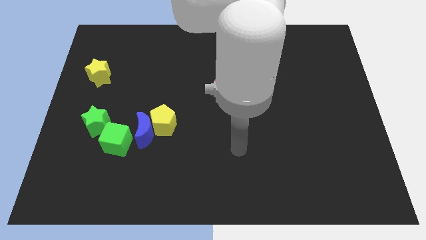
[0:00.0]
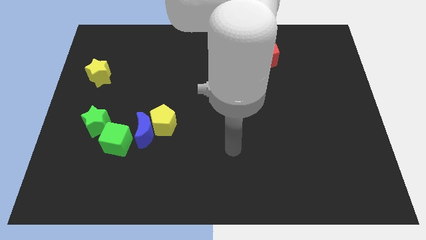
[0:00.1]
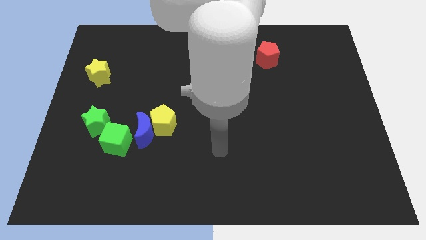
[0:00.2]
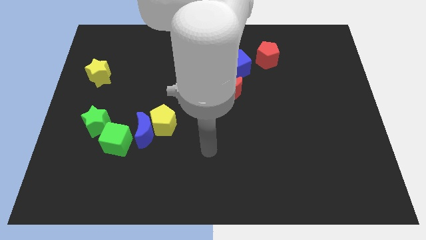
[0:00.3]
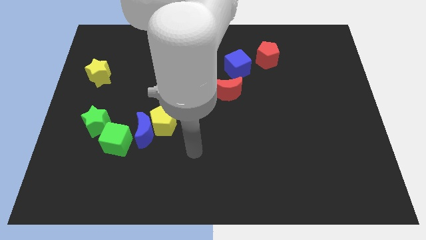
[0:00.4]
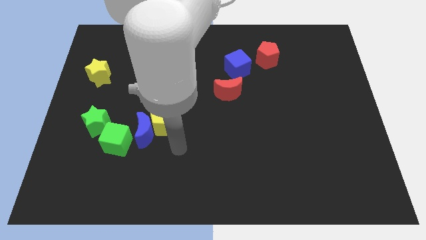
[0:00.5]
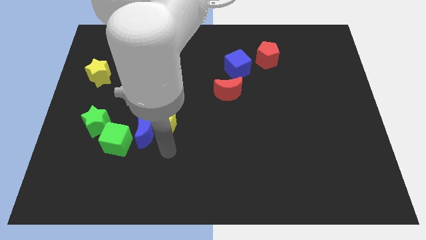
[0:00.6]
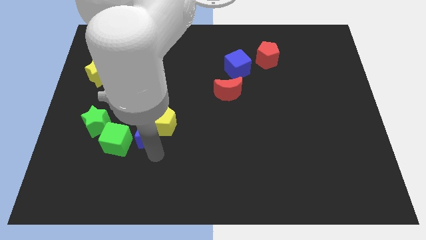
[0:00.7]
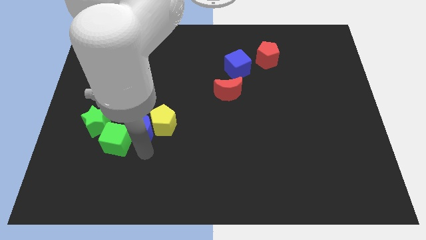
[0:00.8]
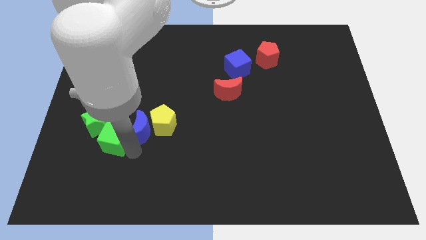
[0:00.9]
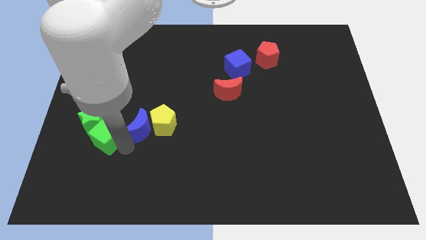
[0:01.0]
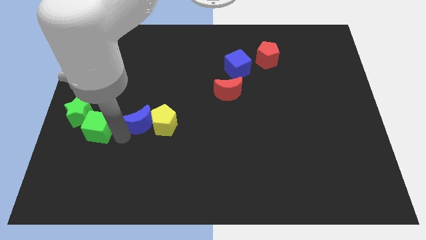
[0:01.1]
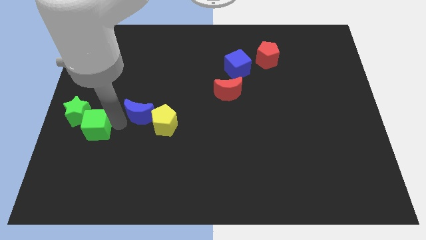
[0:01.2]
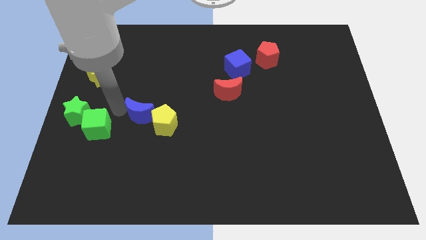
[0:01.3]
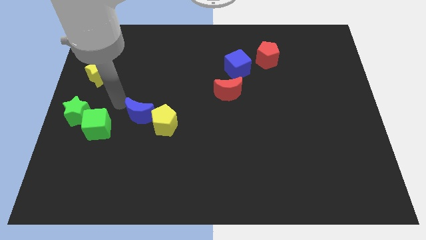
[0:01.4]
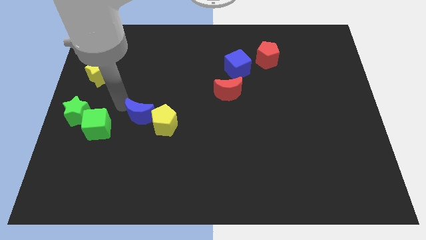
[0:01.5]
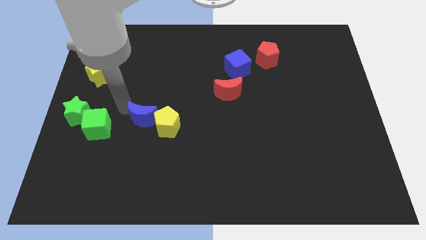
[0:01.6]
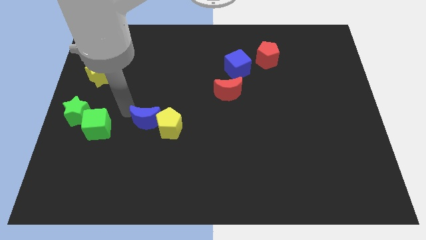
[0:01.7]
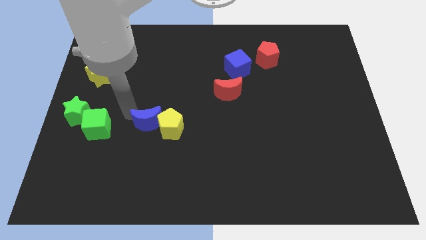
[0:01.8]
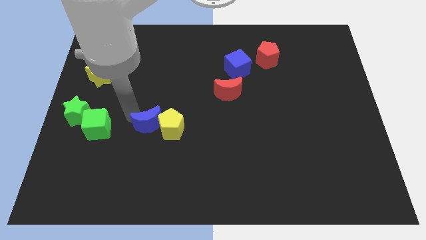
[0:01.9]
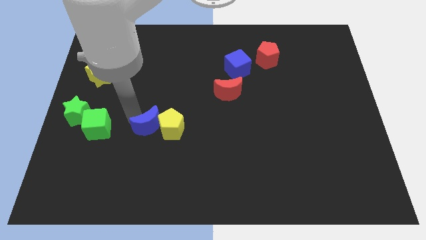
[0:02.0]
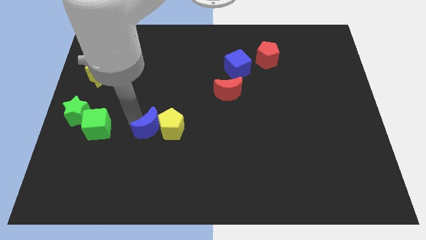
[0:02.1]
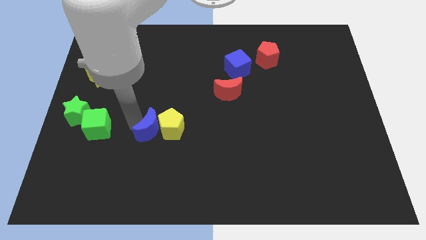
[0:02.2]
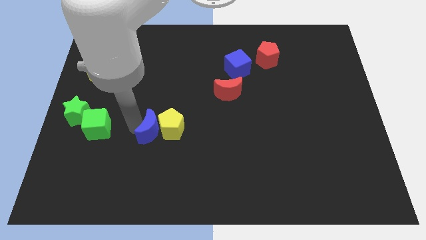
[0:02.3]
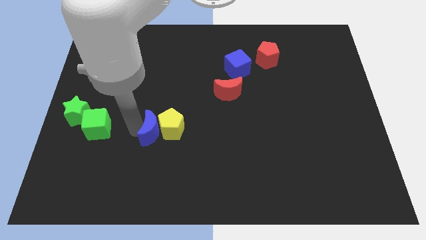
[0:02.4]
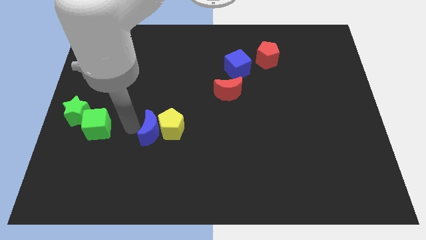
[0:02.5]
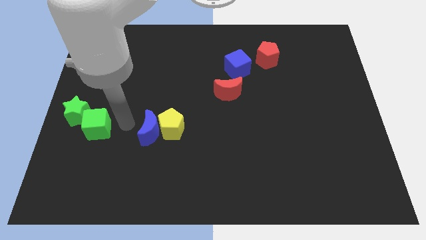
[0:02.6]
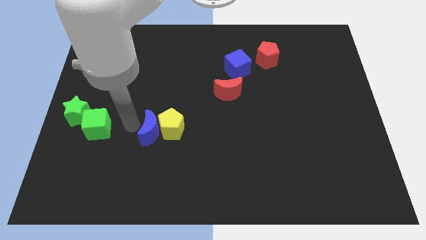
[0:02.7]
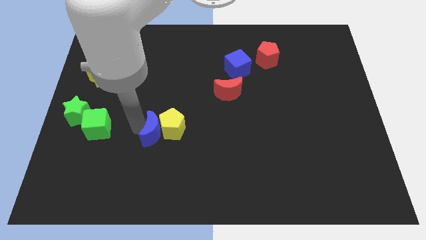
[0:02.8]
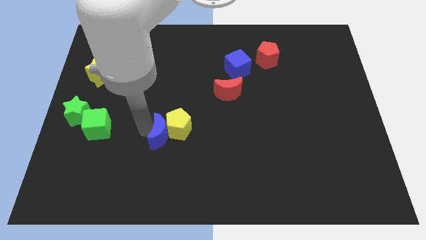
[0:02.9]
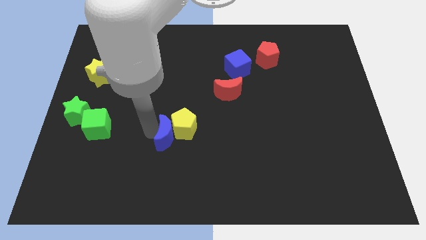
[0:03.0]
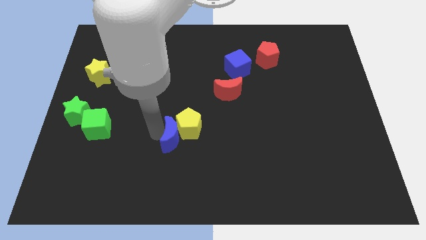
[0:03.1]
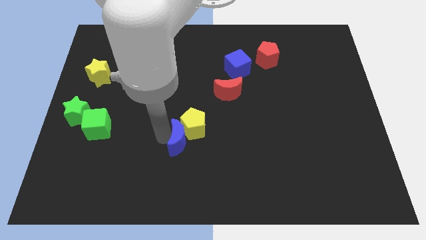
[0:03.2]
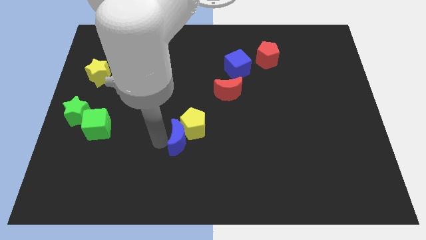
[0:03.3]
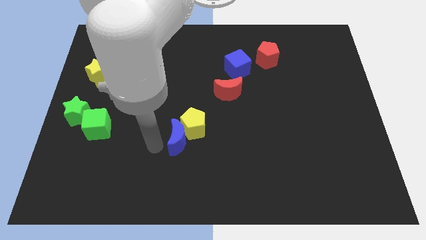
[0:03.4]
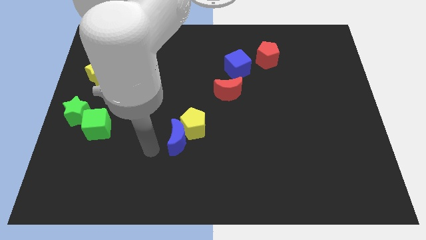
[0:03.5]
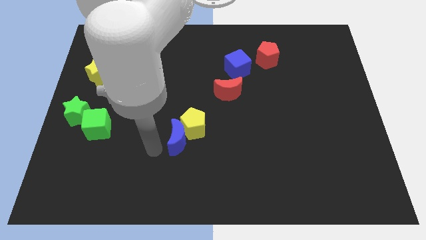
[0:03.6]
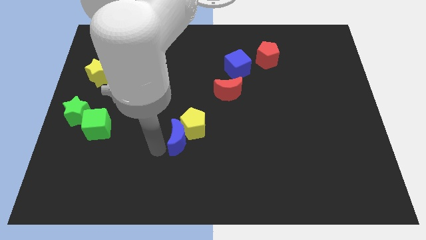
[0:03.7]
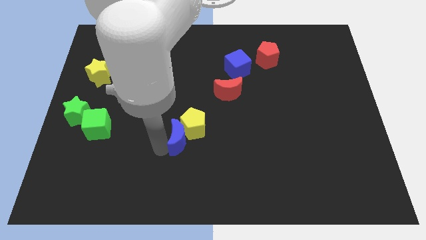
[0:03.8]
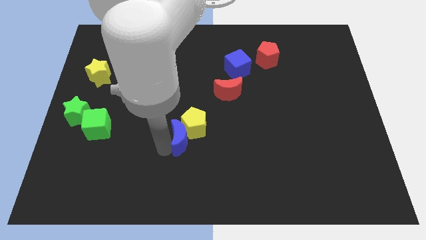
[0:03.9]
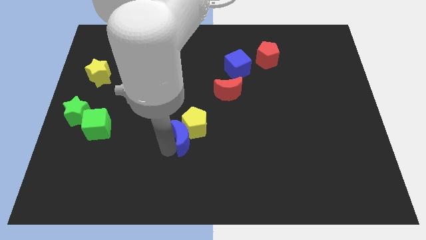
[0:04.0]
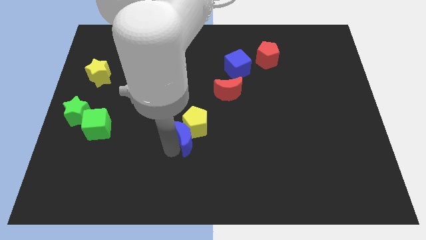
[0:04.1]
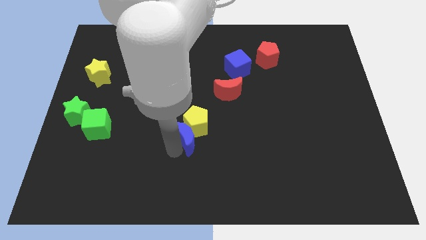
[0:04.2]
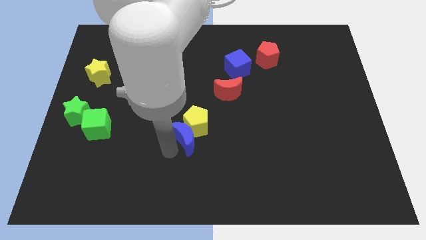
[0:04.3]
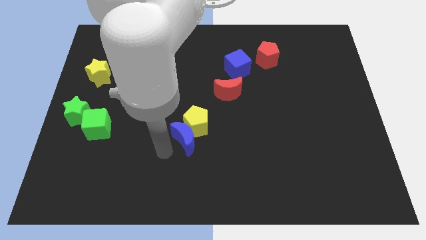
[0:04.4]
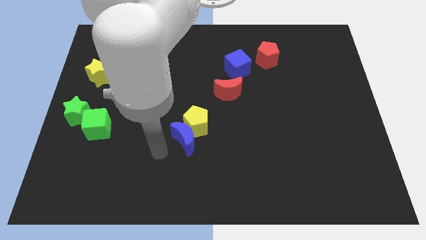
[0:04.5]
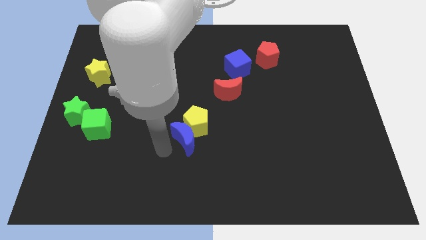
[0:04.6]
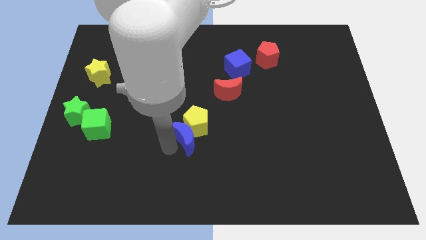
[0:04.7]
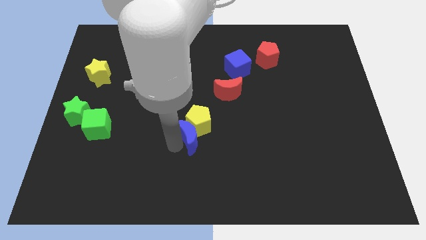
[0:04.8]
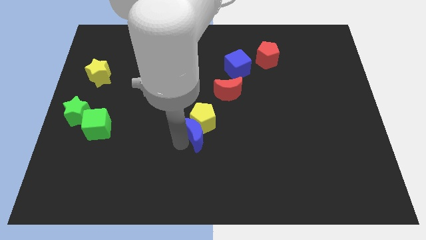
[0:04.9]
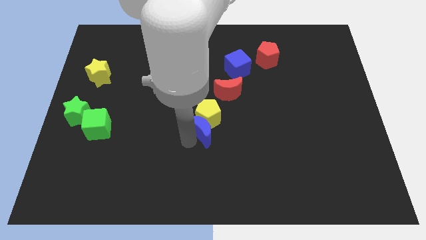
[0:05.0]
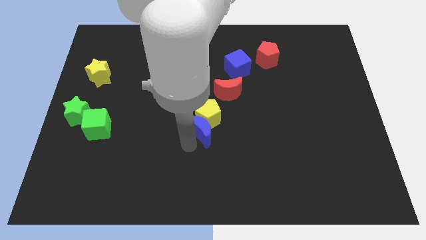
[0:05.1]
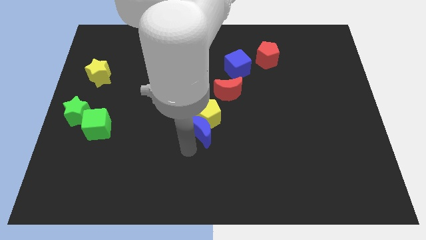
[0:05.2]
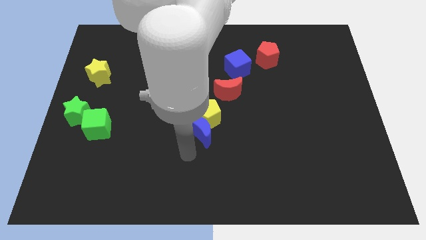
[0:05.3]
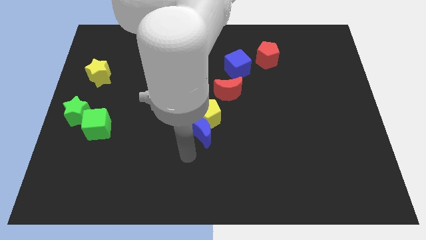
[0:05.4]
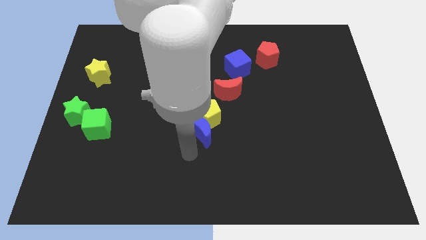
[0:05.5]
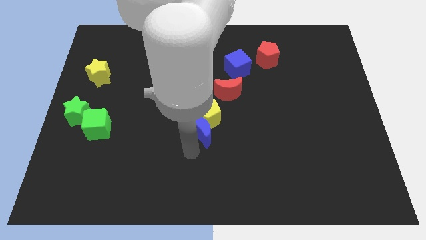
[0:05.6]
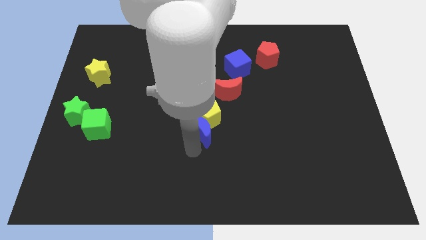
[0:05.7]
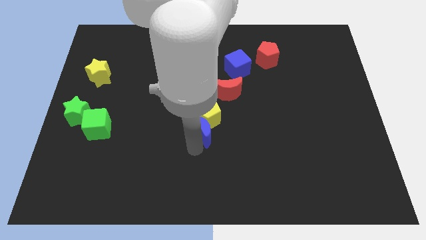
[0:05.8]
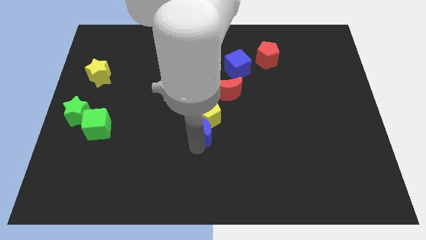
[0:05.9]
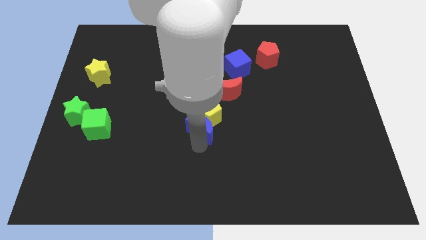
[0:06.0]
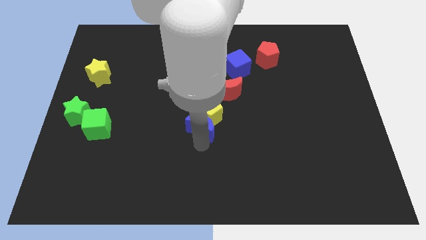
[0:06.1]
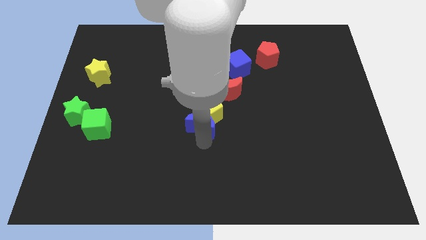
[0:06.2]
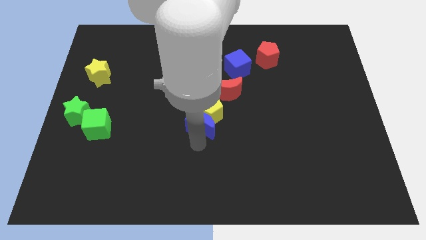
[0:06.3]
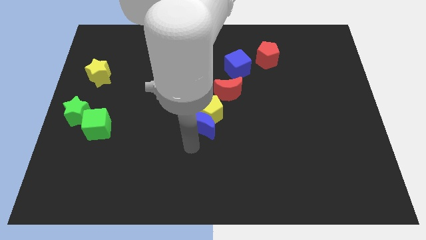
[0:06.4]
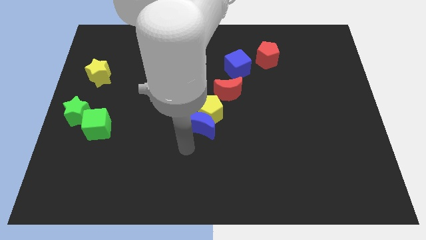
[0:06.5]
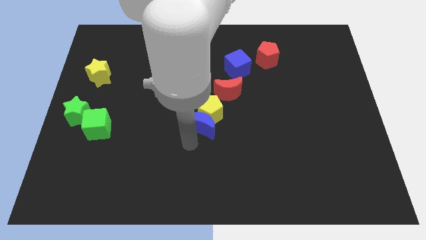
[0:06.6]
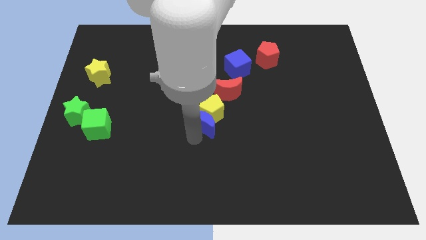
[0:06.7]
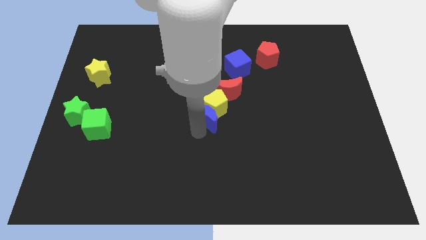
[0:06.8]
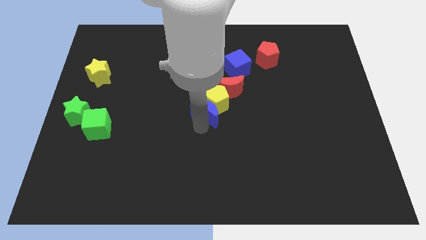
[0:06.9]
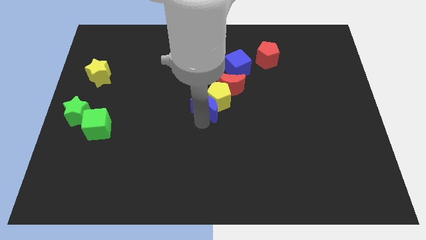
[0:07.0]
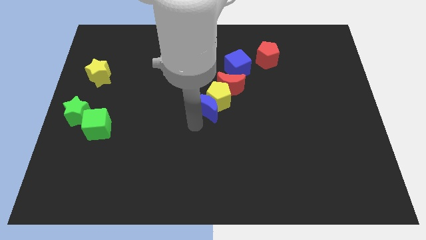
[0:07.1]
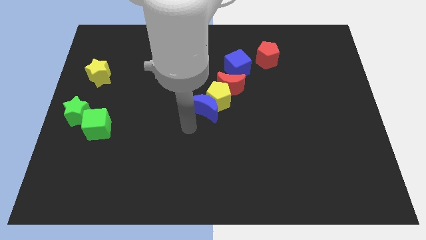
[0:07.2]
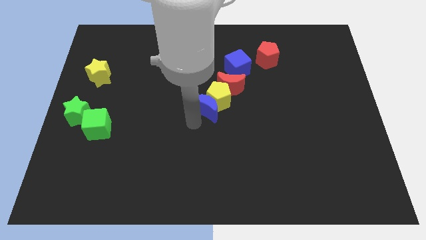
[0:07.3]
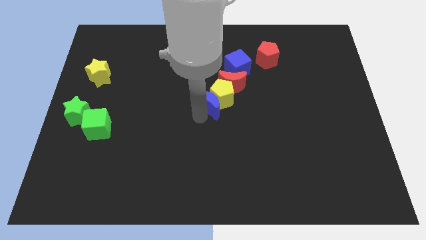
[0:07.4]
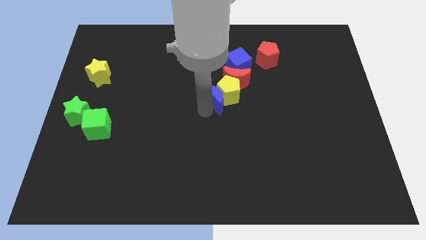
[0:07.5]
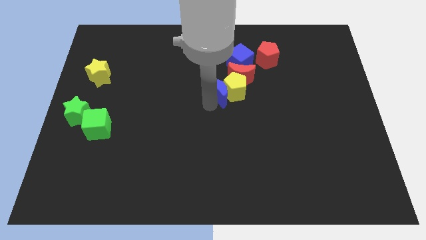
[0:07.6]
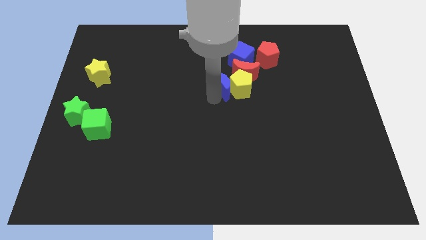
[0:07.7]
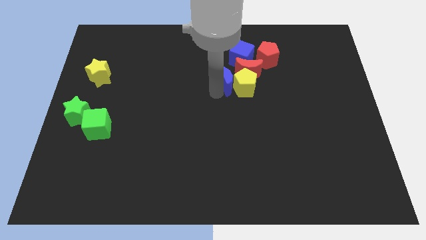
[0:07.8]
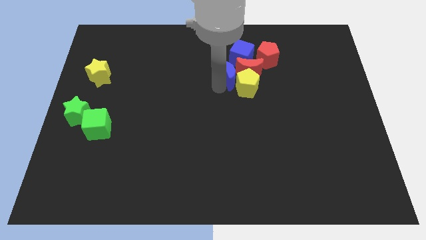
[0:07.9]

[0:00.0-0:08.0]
move the blue moon next to the red moon
